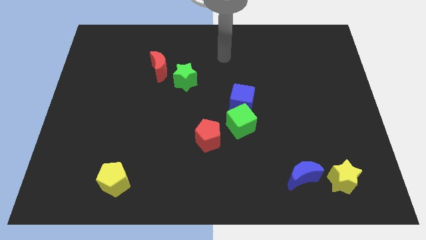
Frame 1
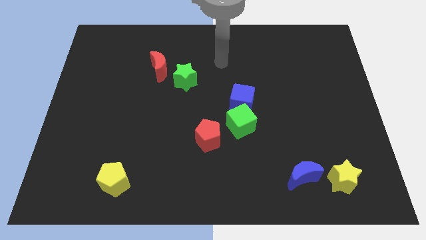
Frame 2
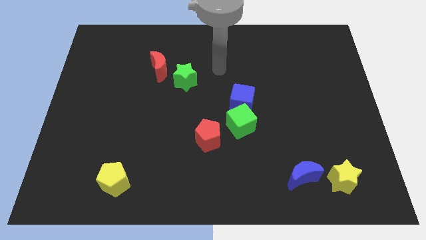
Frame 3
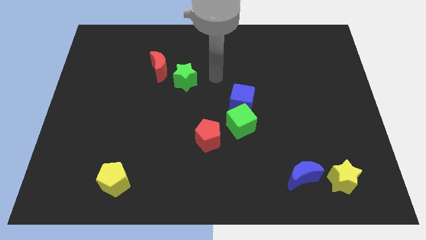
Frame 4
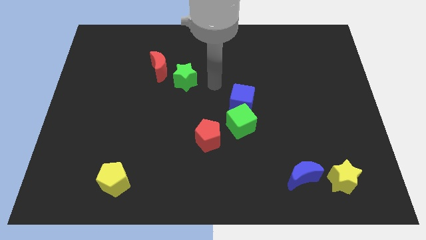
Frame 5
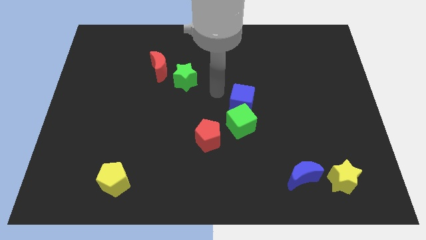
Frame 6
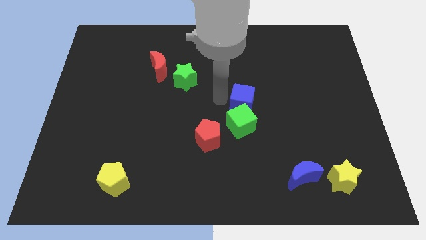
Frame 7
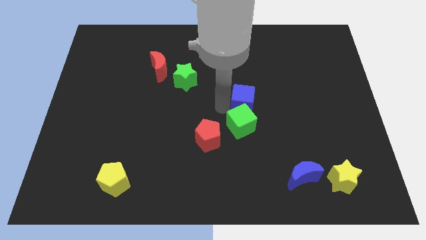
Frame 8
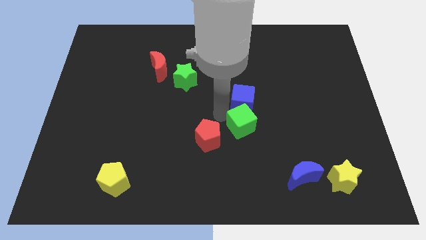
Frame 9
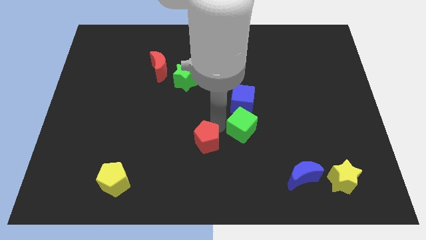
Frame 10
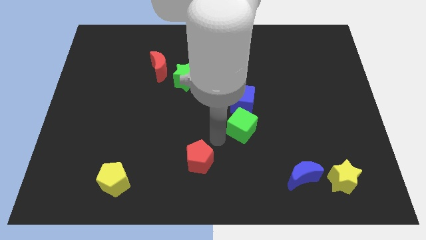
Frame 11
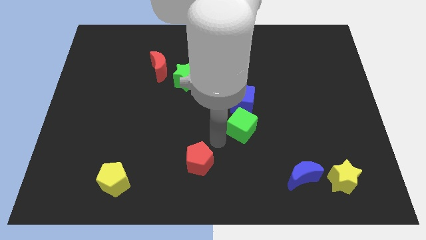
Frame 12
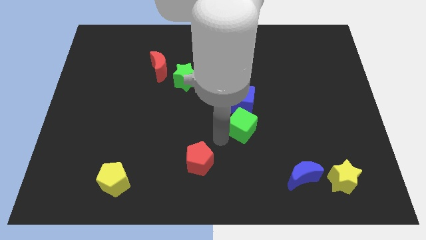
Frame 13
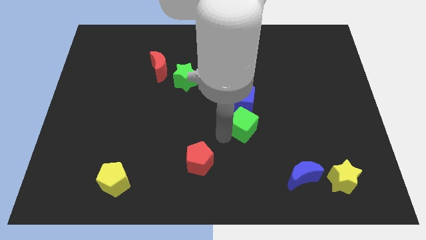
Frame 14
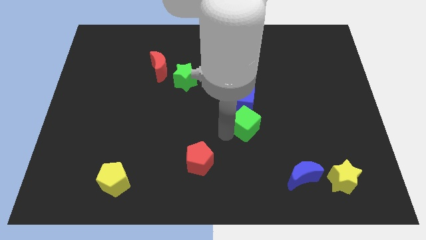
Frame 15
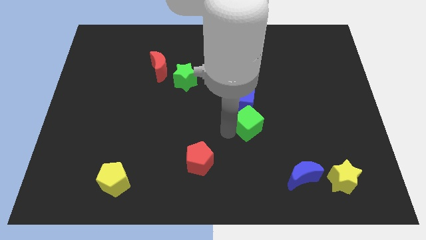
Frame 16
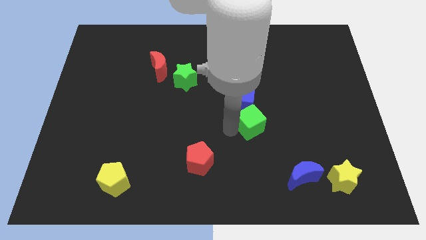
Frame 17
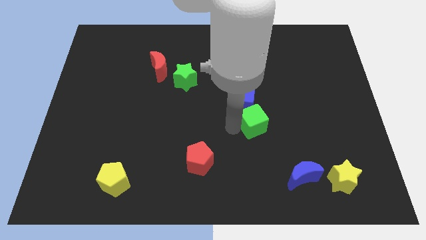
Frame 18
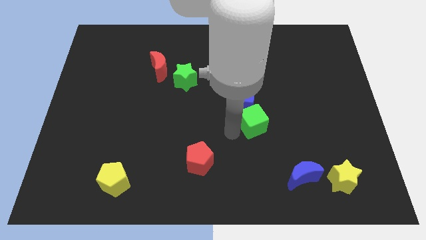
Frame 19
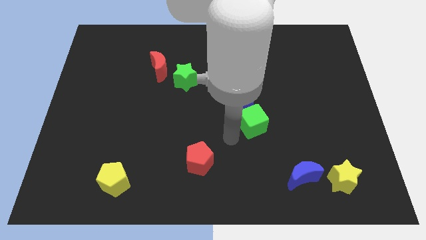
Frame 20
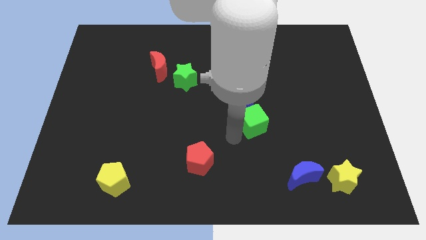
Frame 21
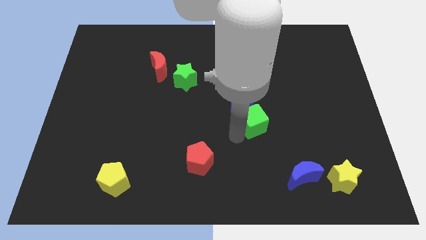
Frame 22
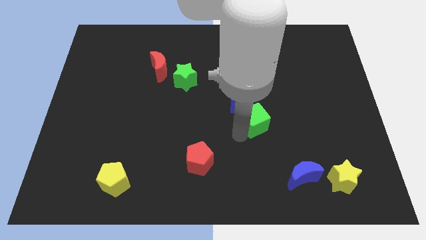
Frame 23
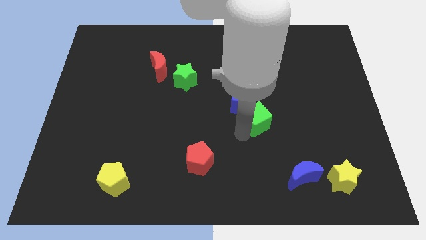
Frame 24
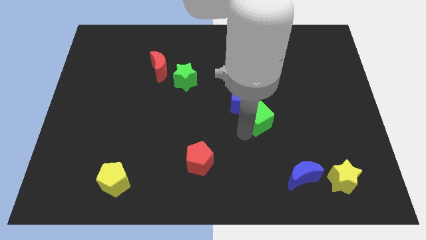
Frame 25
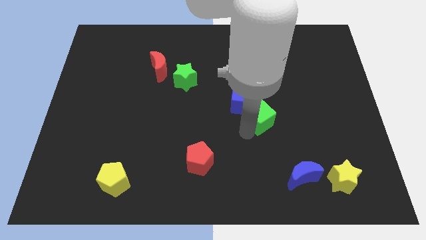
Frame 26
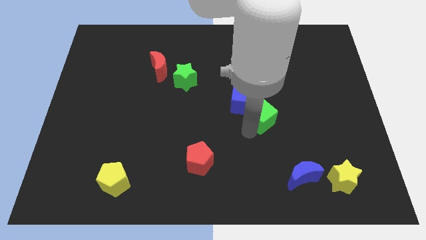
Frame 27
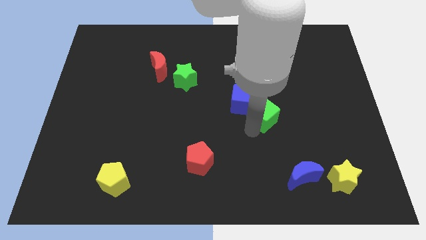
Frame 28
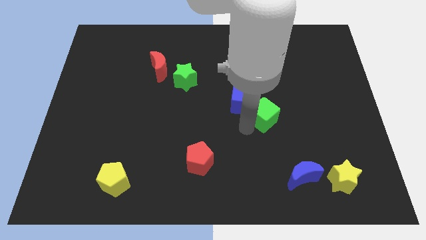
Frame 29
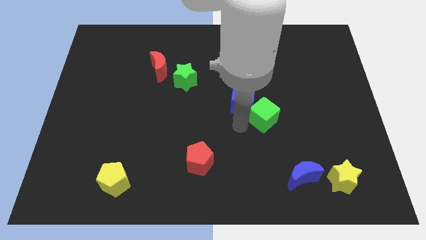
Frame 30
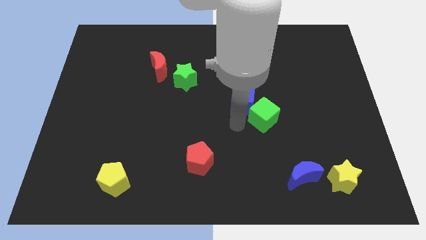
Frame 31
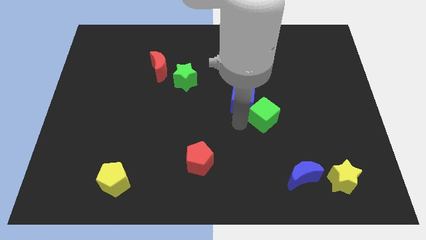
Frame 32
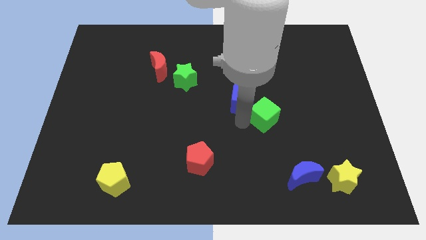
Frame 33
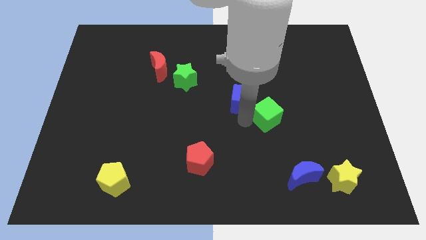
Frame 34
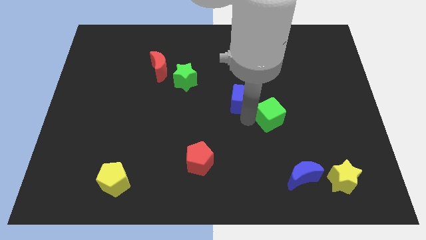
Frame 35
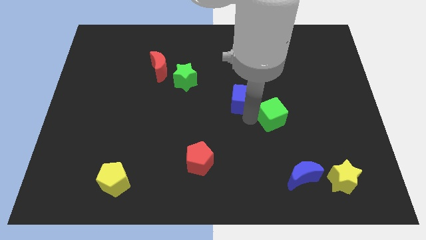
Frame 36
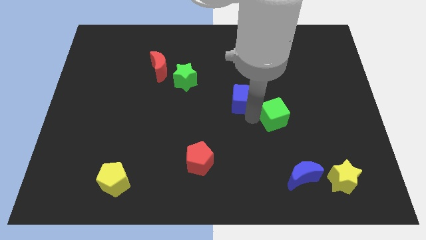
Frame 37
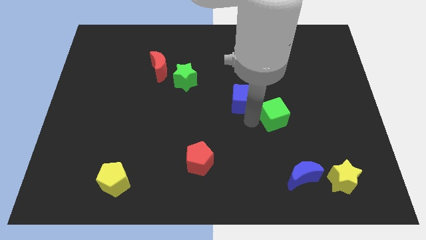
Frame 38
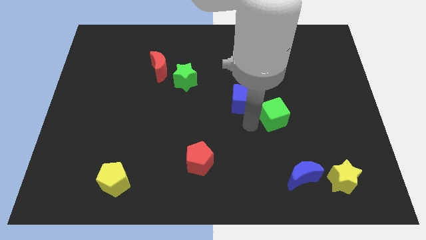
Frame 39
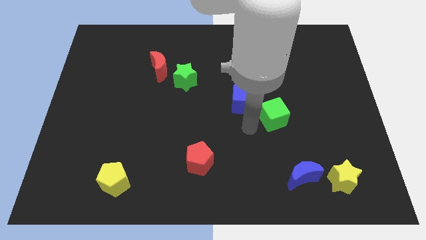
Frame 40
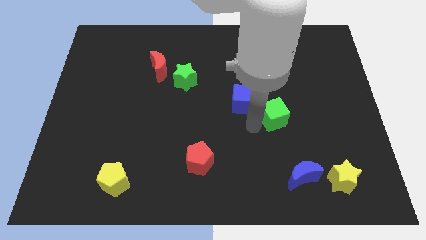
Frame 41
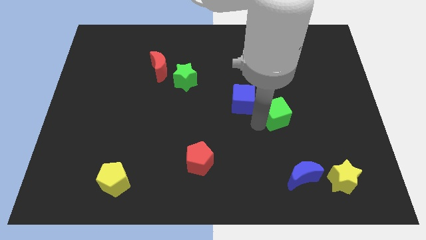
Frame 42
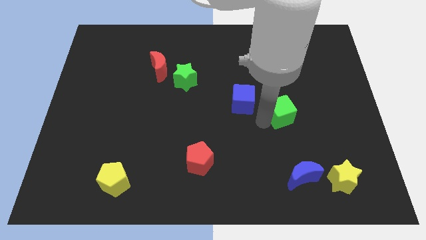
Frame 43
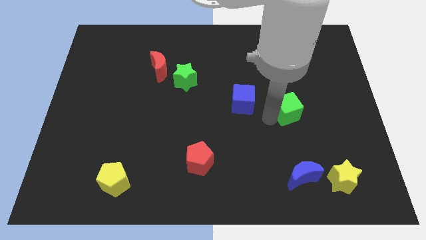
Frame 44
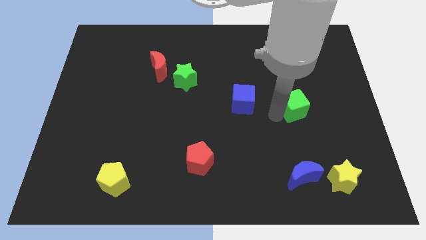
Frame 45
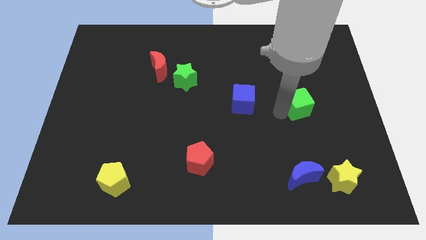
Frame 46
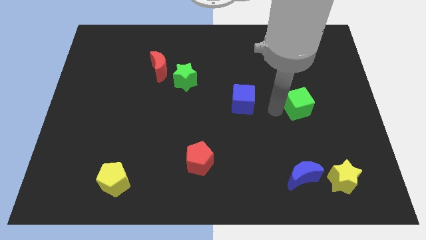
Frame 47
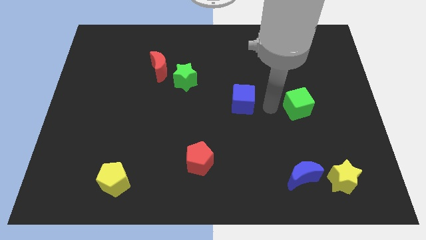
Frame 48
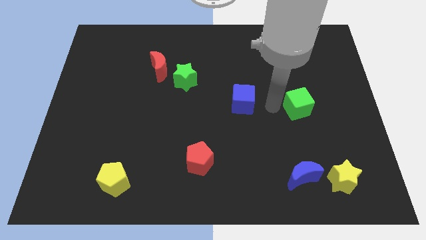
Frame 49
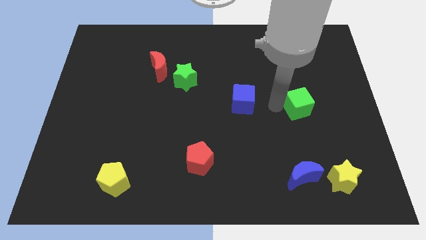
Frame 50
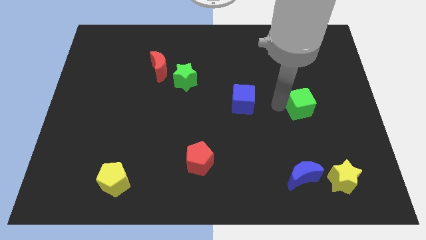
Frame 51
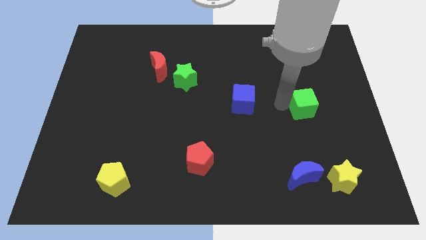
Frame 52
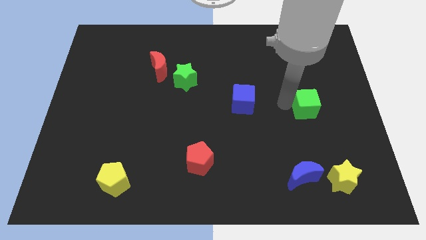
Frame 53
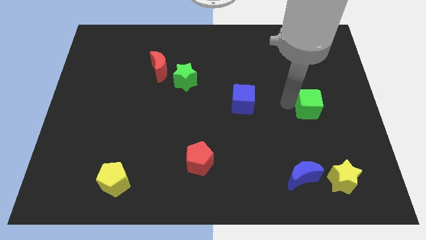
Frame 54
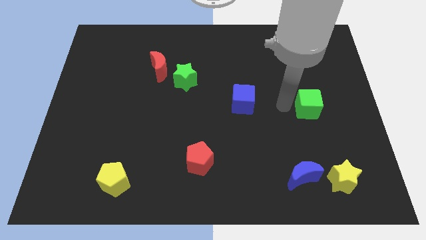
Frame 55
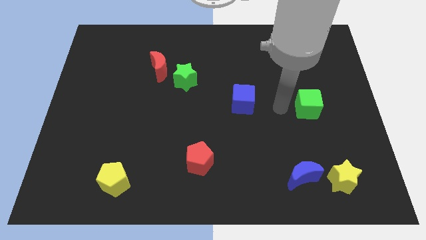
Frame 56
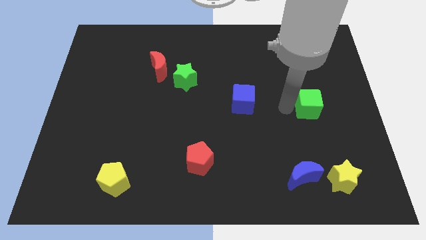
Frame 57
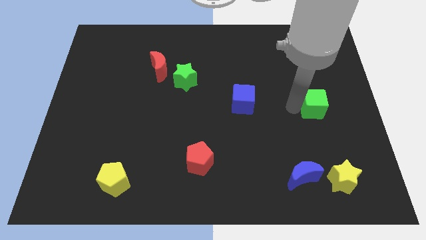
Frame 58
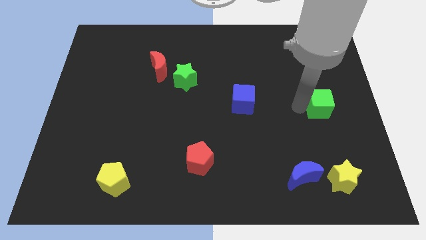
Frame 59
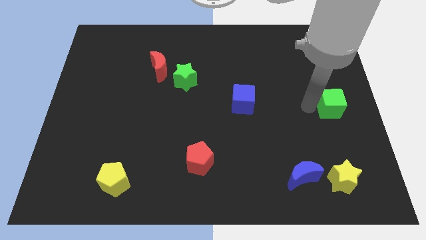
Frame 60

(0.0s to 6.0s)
put the green cube to the right side

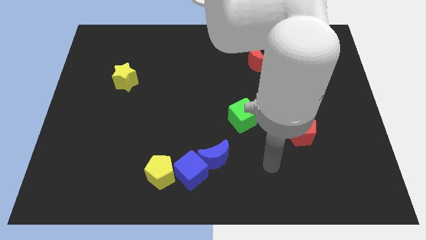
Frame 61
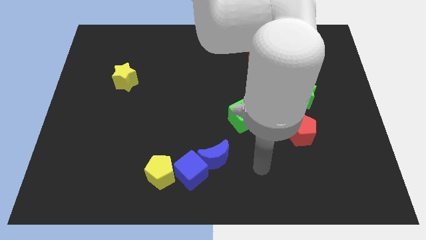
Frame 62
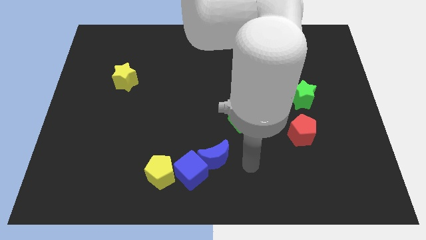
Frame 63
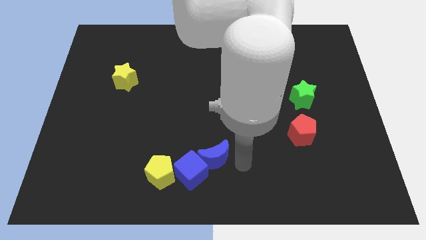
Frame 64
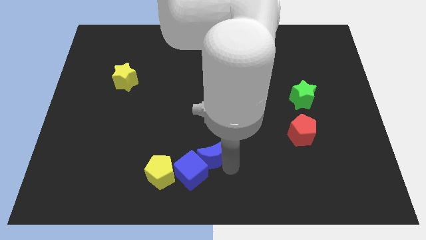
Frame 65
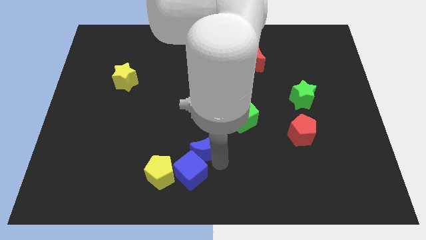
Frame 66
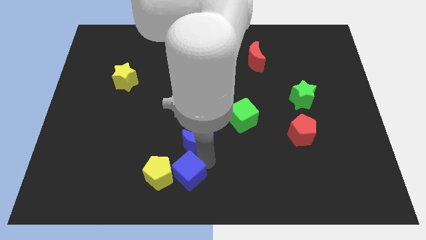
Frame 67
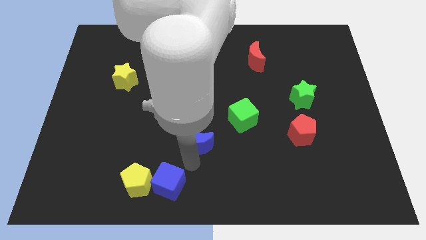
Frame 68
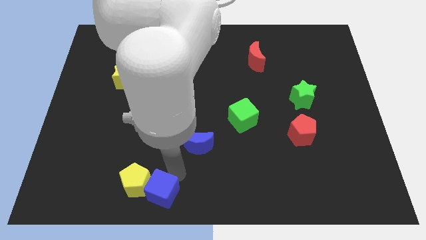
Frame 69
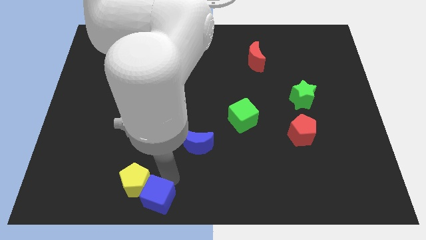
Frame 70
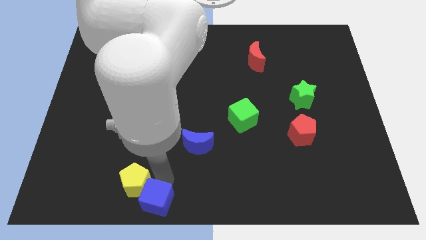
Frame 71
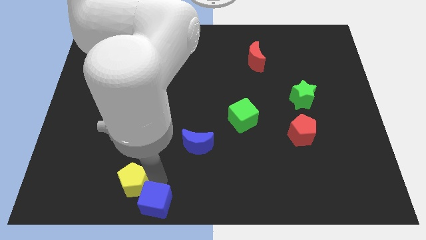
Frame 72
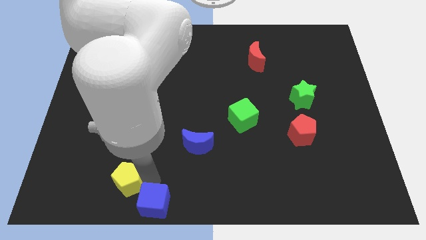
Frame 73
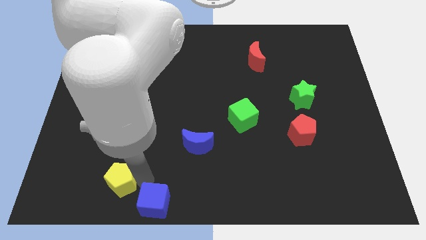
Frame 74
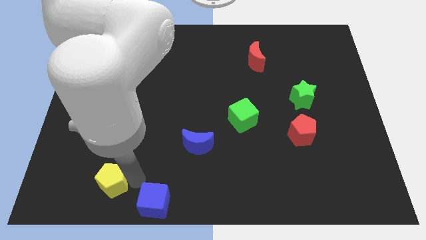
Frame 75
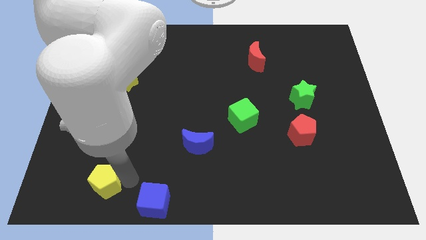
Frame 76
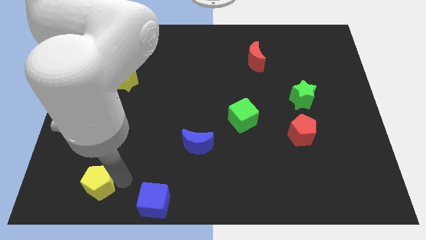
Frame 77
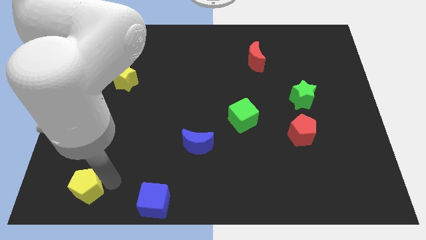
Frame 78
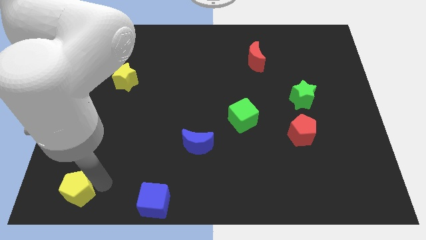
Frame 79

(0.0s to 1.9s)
move the yellow pentagon to the bottom left of the board
